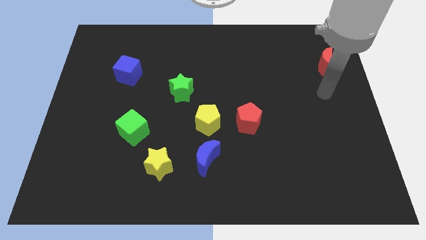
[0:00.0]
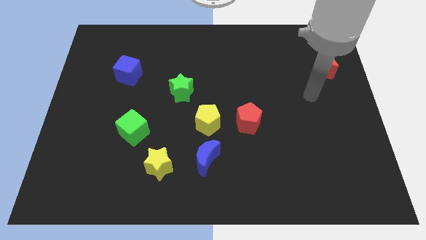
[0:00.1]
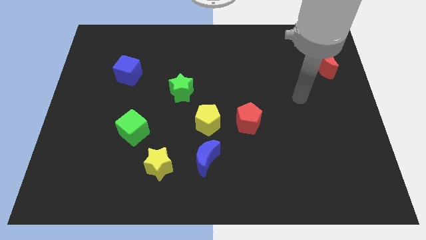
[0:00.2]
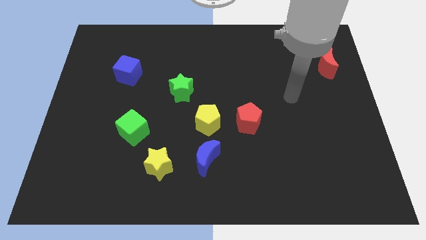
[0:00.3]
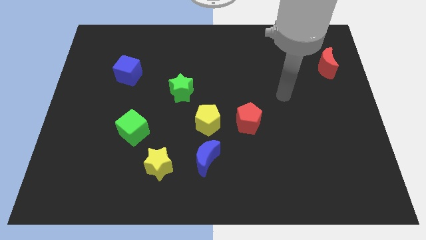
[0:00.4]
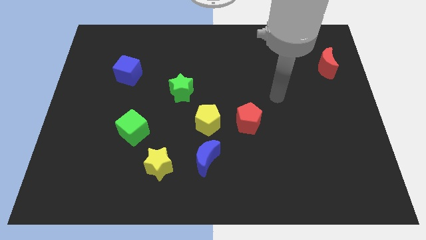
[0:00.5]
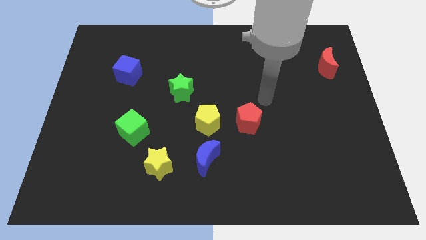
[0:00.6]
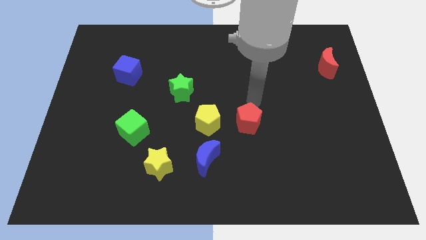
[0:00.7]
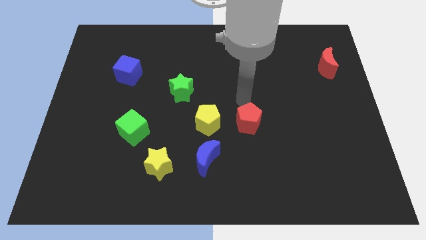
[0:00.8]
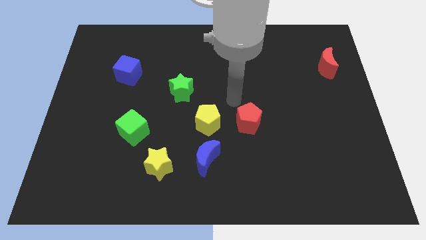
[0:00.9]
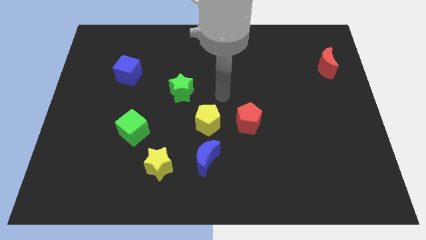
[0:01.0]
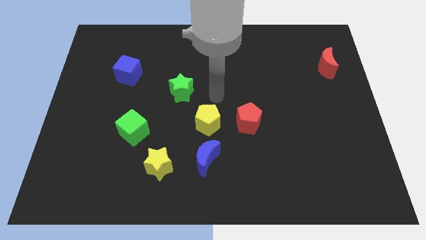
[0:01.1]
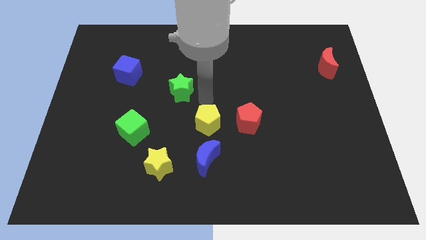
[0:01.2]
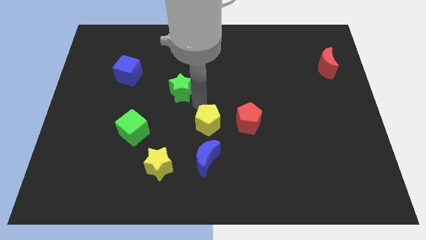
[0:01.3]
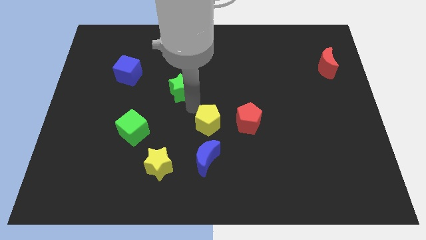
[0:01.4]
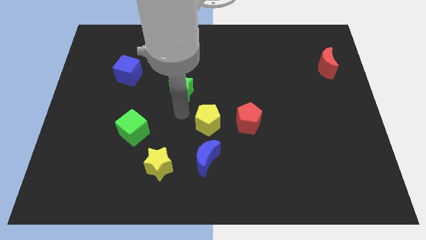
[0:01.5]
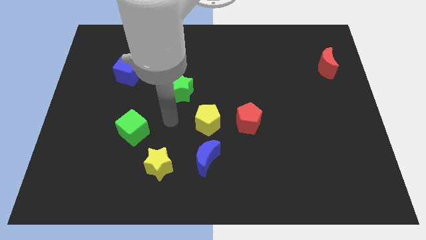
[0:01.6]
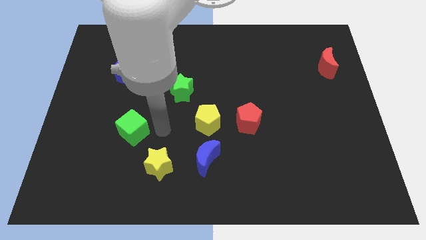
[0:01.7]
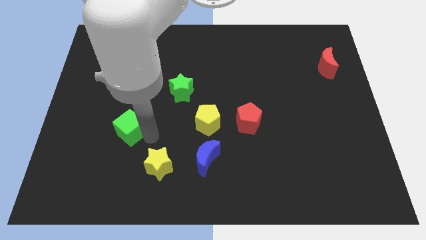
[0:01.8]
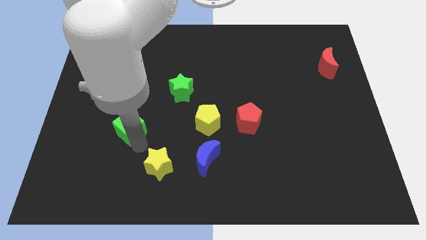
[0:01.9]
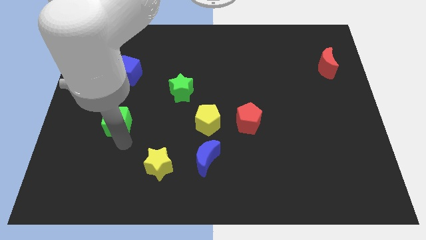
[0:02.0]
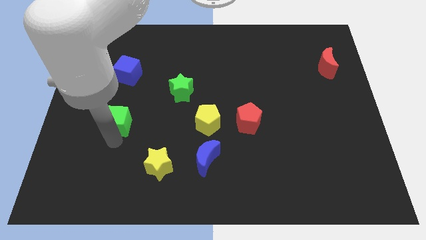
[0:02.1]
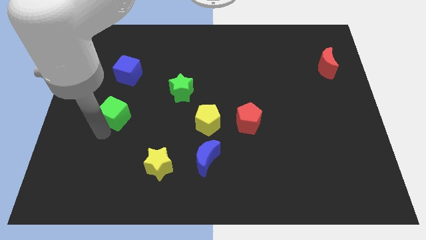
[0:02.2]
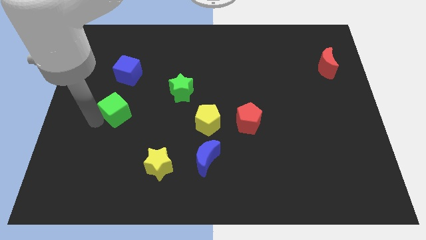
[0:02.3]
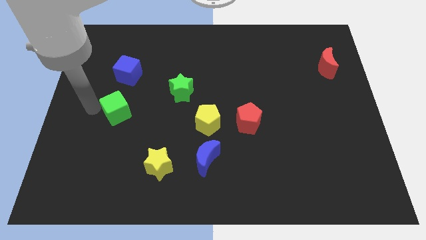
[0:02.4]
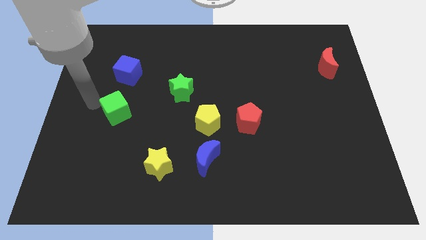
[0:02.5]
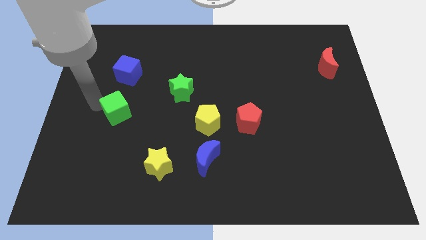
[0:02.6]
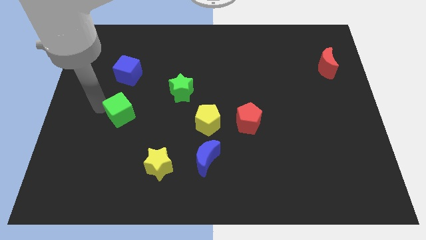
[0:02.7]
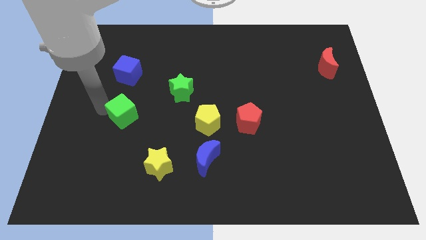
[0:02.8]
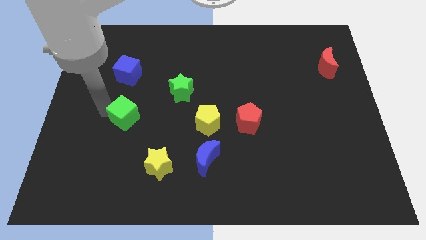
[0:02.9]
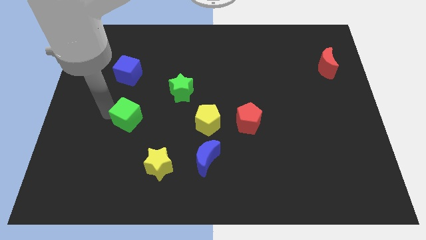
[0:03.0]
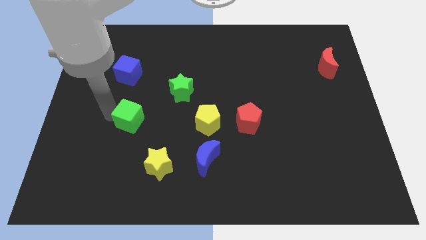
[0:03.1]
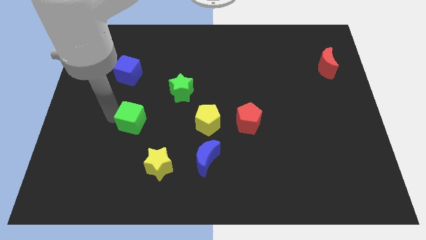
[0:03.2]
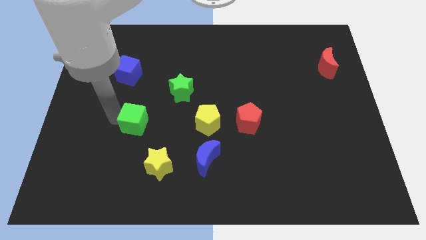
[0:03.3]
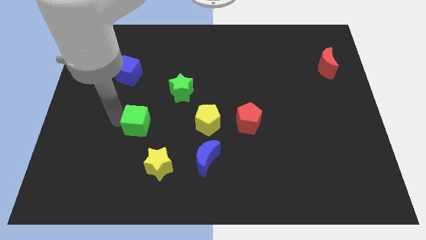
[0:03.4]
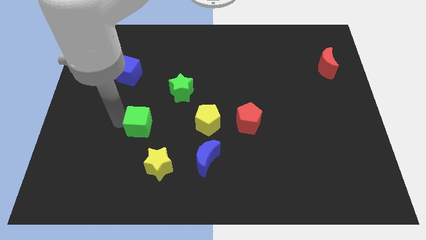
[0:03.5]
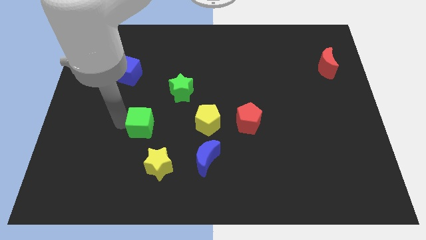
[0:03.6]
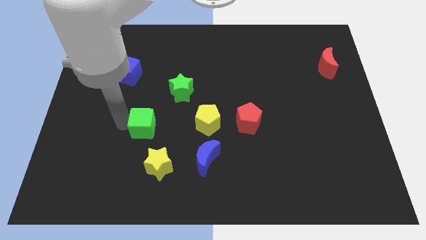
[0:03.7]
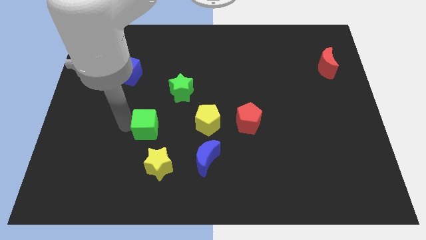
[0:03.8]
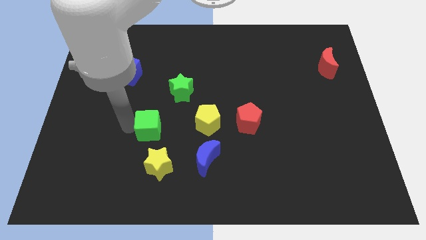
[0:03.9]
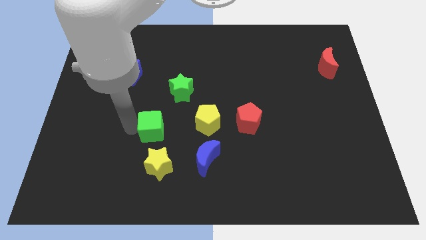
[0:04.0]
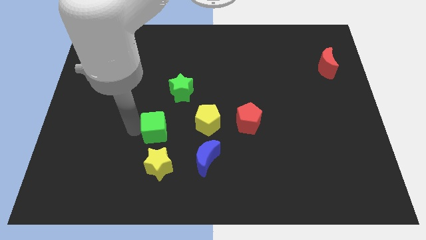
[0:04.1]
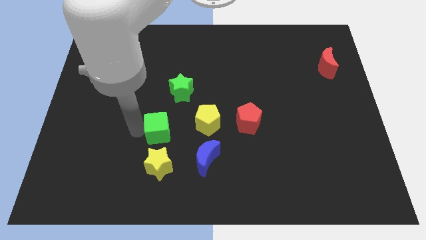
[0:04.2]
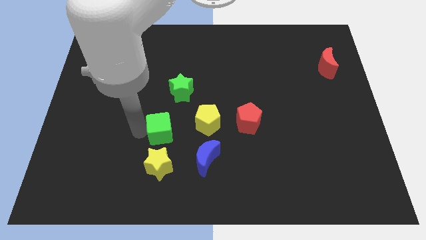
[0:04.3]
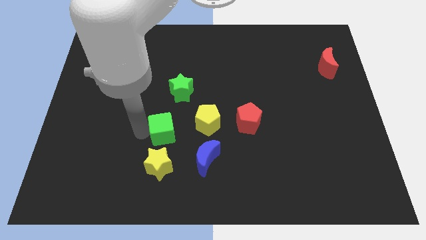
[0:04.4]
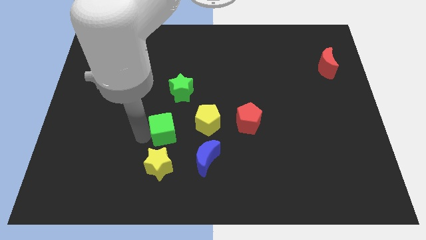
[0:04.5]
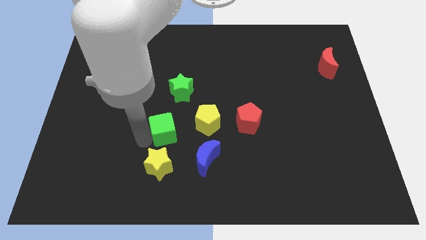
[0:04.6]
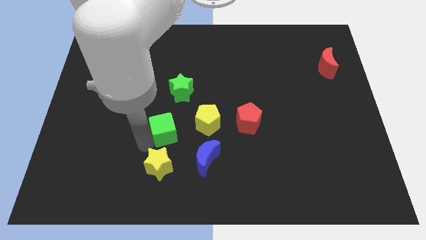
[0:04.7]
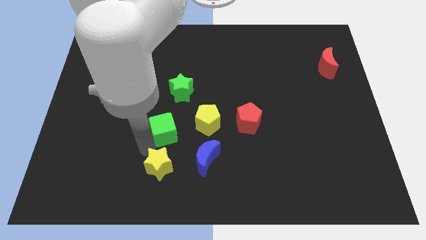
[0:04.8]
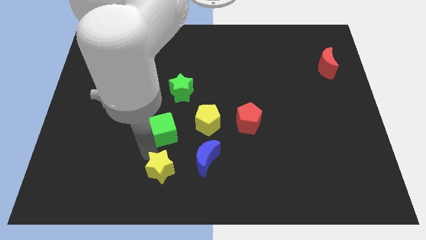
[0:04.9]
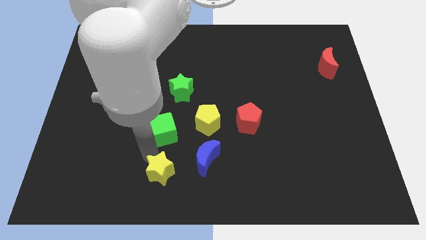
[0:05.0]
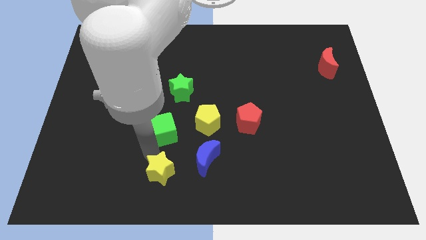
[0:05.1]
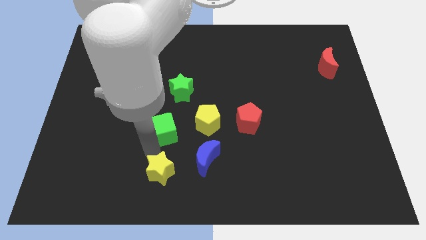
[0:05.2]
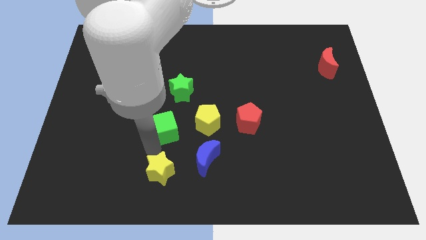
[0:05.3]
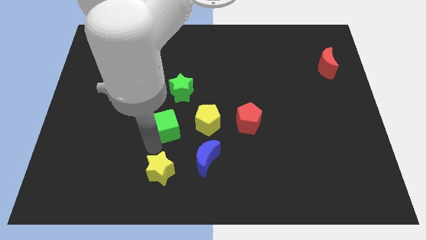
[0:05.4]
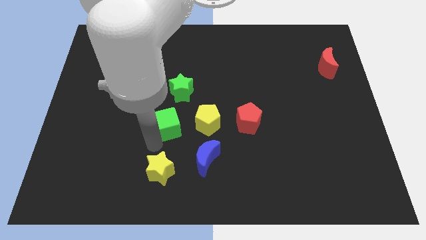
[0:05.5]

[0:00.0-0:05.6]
put the green cube to the center of the board
